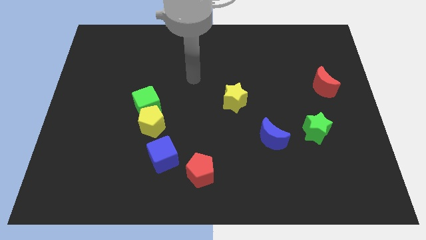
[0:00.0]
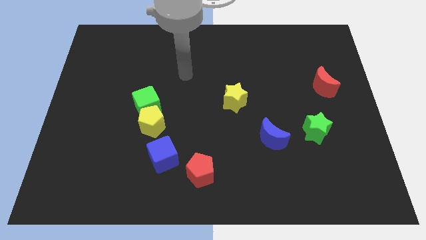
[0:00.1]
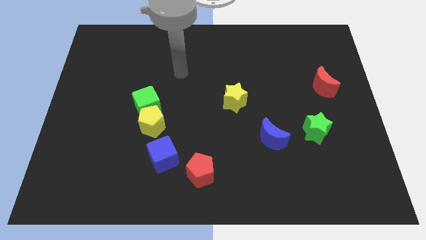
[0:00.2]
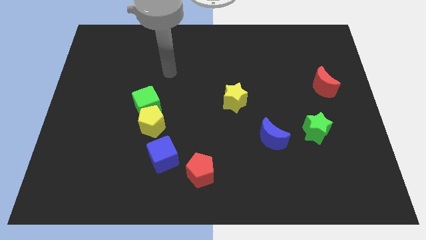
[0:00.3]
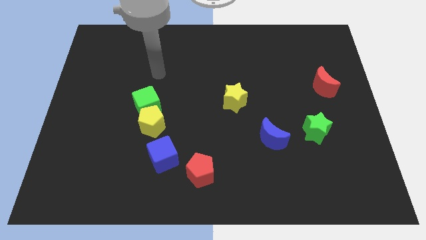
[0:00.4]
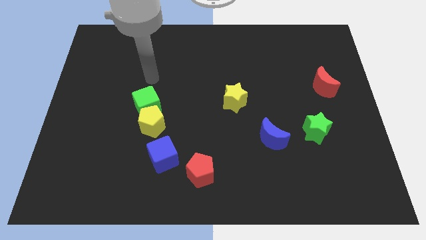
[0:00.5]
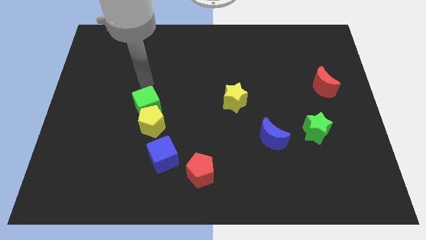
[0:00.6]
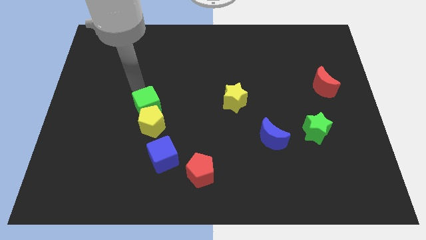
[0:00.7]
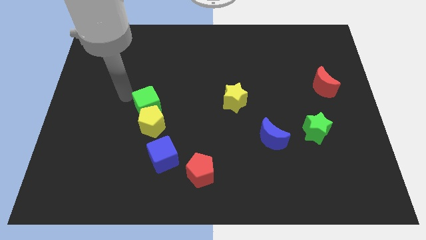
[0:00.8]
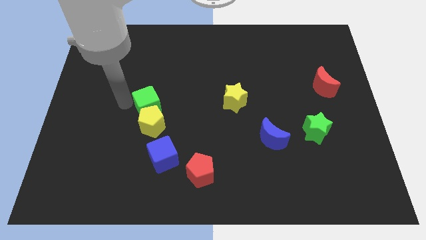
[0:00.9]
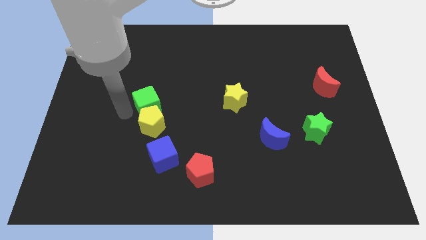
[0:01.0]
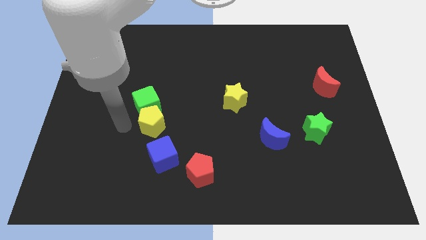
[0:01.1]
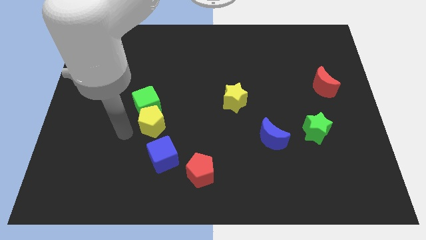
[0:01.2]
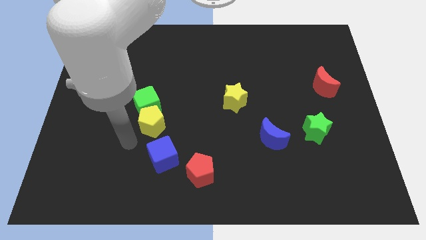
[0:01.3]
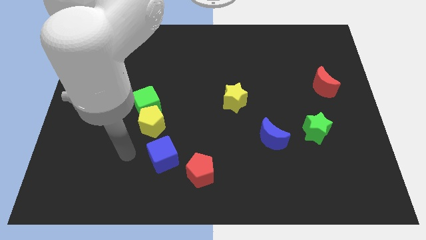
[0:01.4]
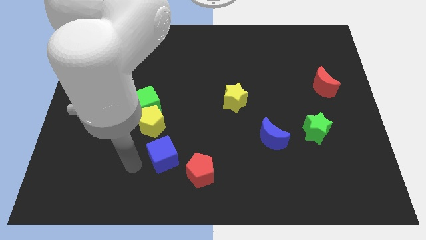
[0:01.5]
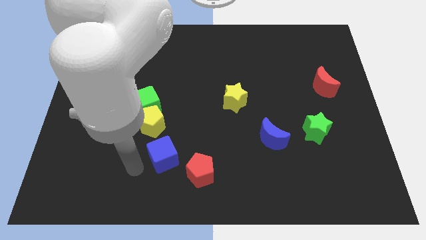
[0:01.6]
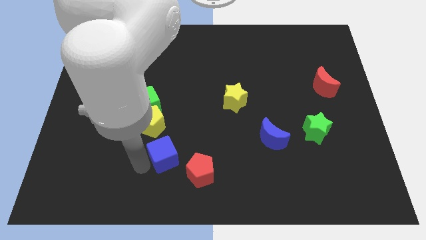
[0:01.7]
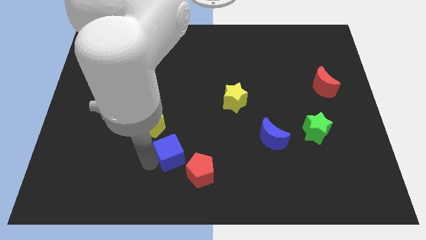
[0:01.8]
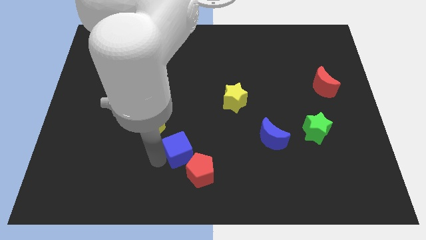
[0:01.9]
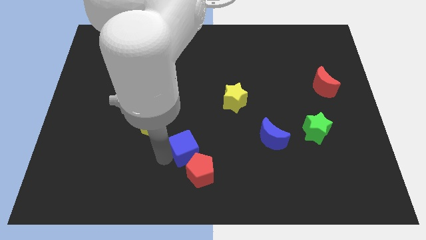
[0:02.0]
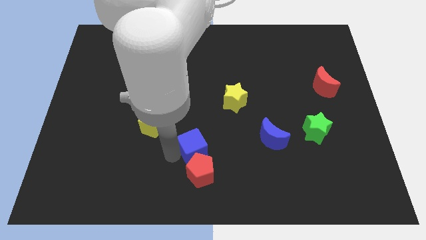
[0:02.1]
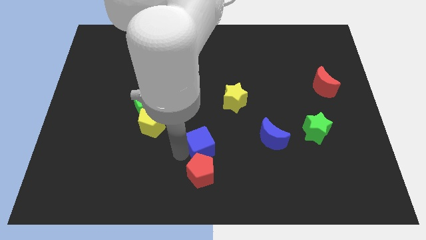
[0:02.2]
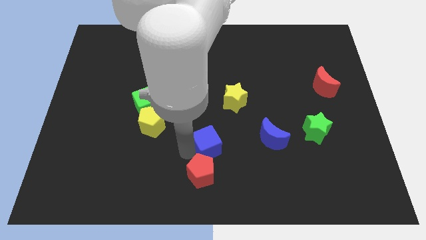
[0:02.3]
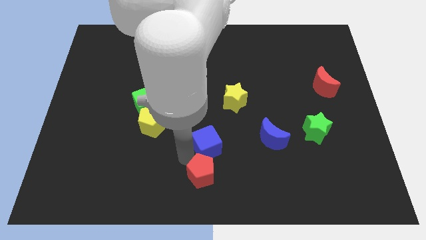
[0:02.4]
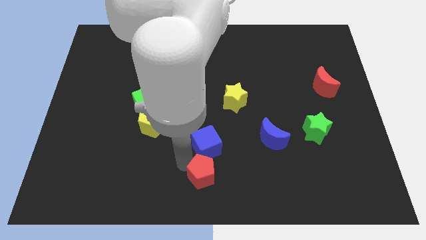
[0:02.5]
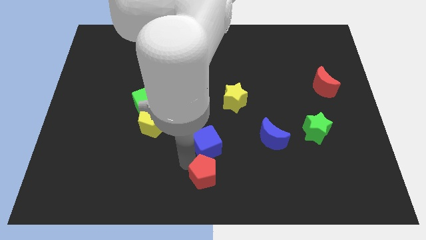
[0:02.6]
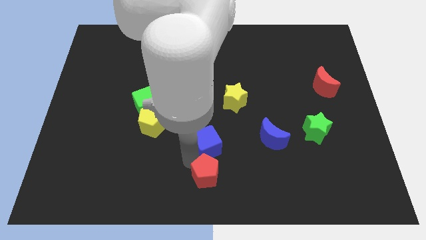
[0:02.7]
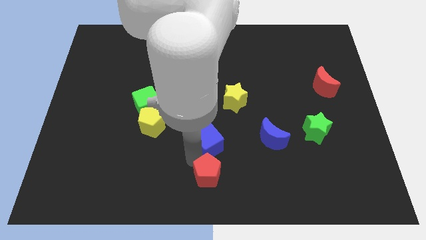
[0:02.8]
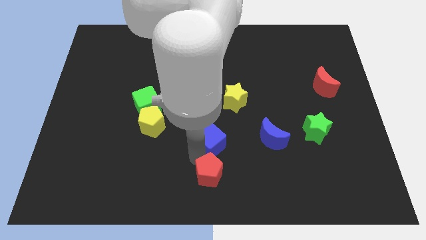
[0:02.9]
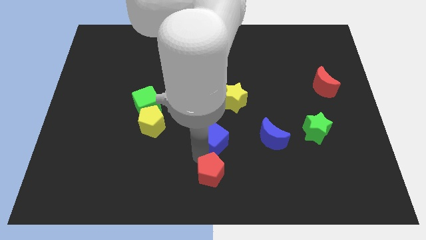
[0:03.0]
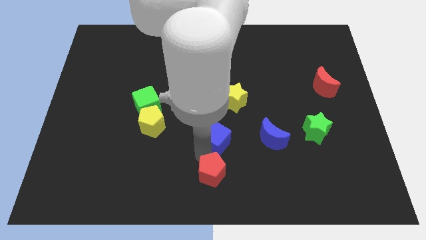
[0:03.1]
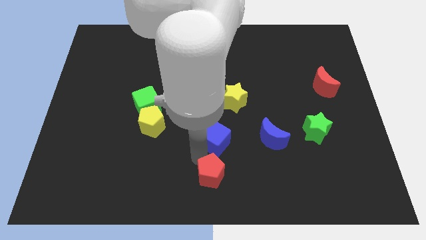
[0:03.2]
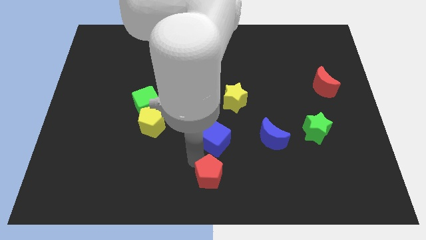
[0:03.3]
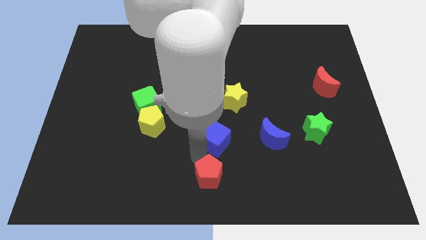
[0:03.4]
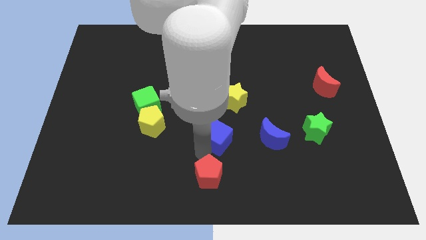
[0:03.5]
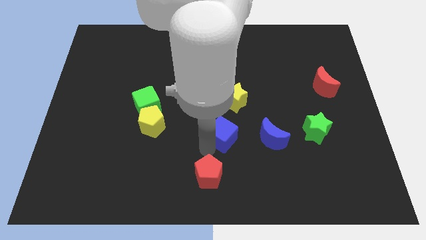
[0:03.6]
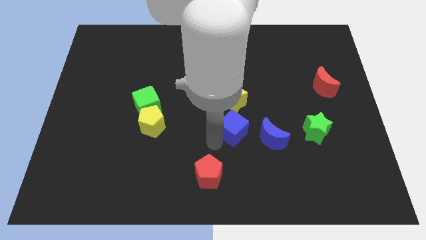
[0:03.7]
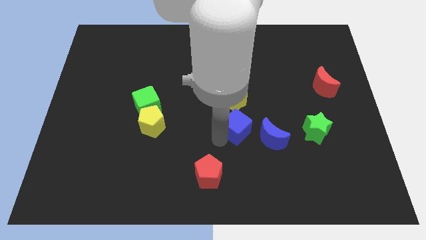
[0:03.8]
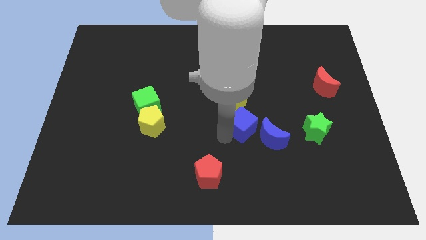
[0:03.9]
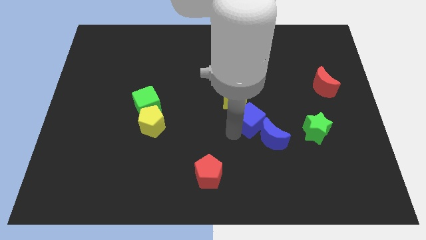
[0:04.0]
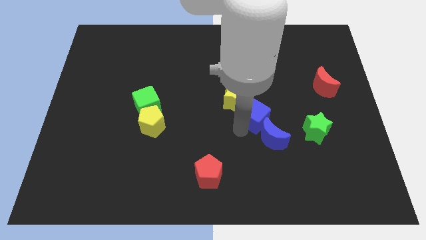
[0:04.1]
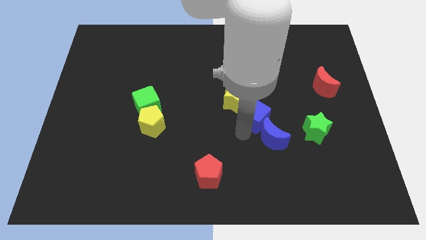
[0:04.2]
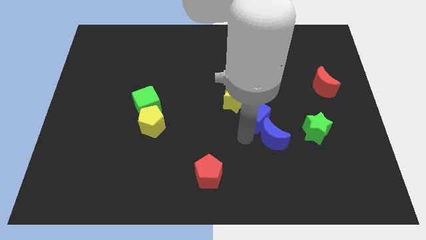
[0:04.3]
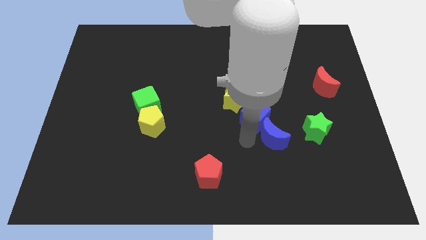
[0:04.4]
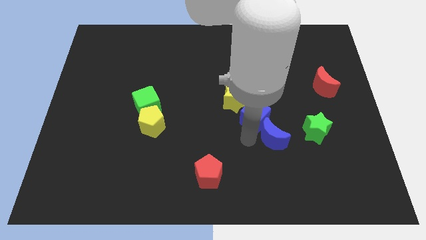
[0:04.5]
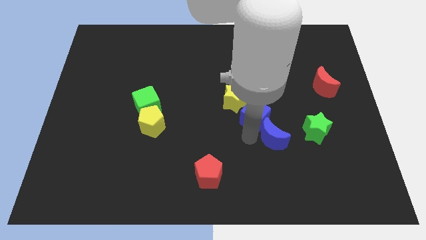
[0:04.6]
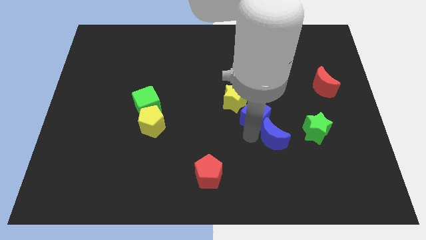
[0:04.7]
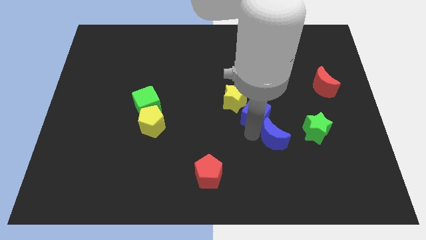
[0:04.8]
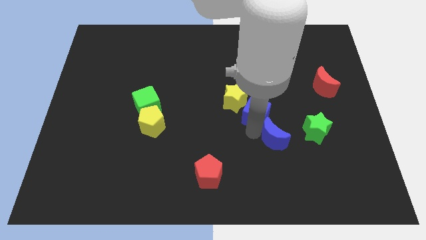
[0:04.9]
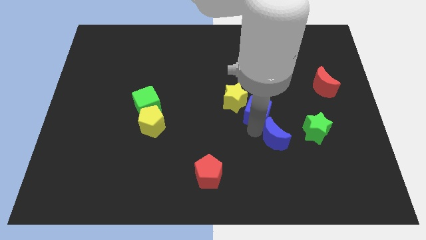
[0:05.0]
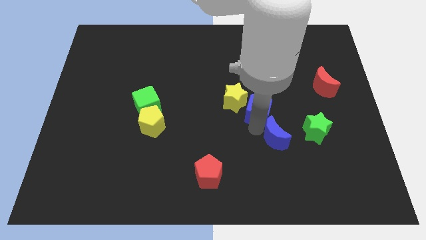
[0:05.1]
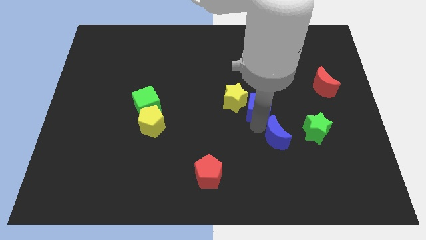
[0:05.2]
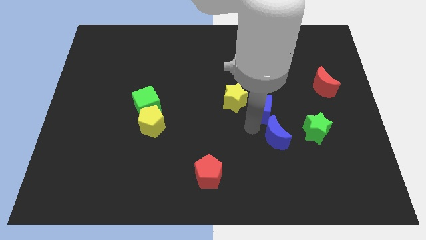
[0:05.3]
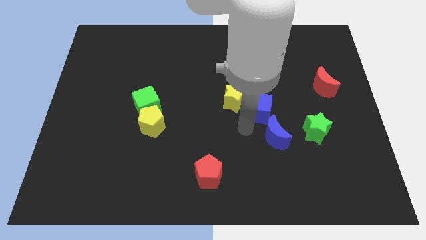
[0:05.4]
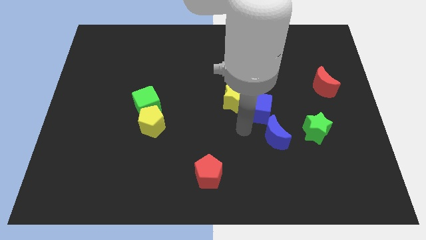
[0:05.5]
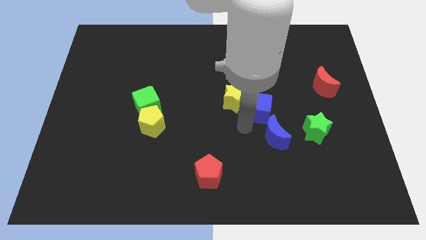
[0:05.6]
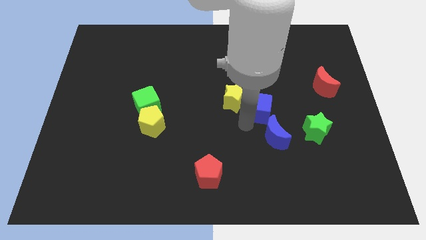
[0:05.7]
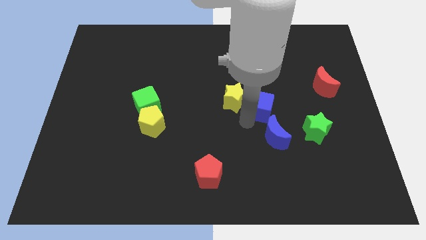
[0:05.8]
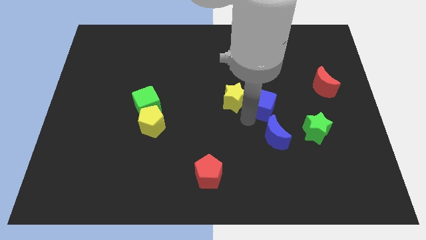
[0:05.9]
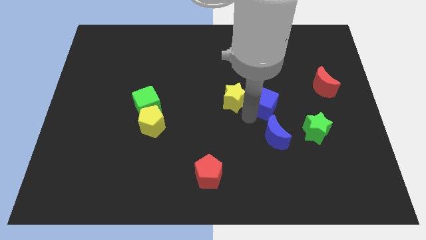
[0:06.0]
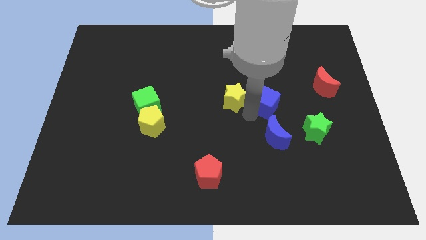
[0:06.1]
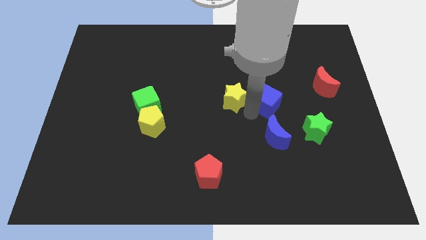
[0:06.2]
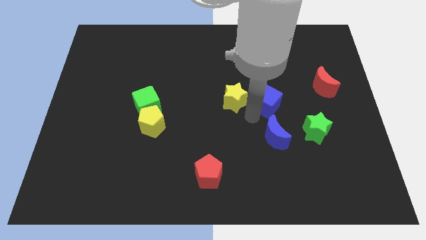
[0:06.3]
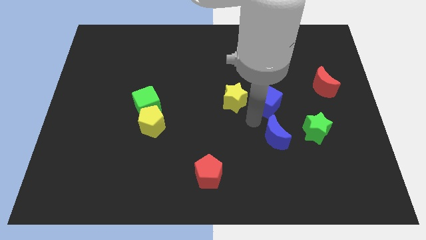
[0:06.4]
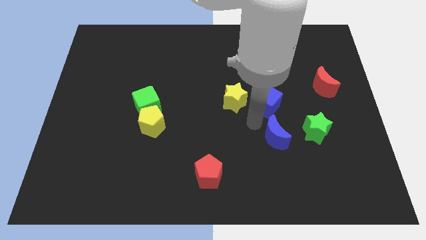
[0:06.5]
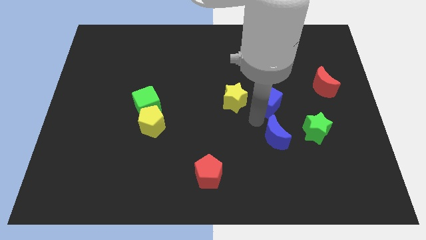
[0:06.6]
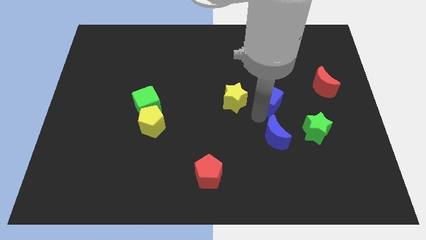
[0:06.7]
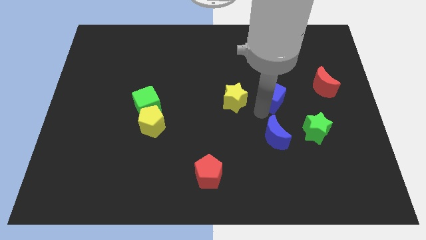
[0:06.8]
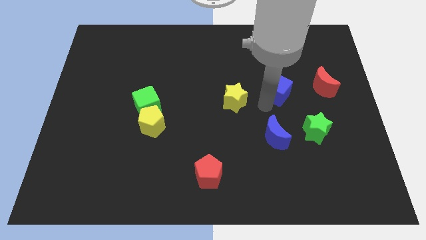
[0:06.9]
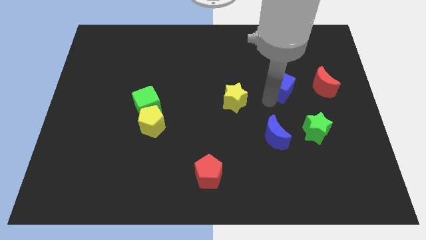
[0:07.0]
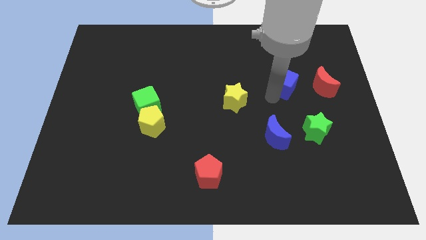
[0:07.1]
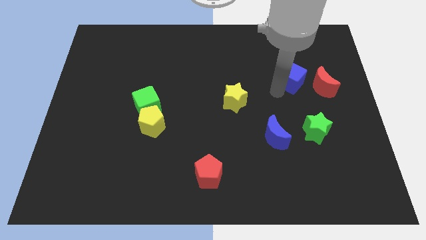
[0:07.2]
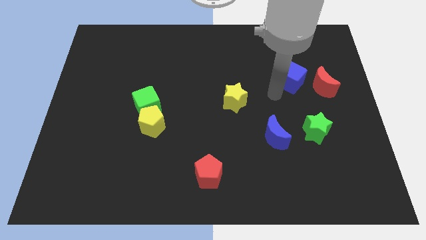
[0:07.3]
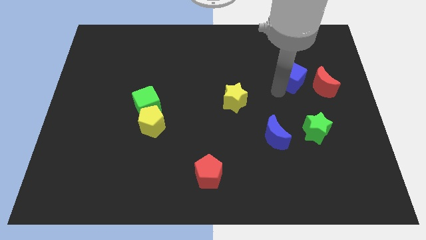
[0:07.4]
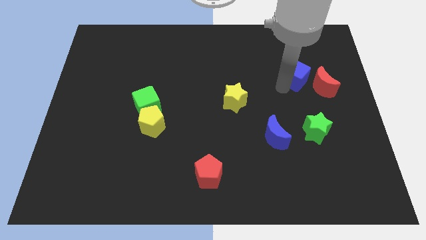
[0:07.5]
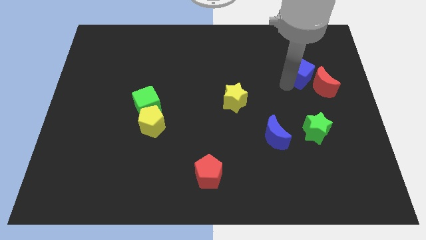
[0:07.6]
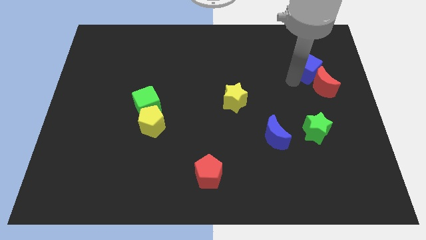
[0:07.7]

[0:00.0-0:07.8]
put the blue cube above the red moon

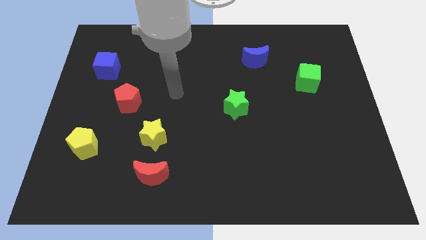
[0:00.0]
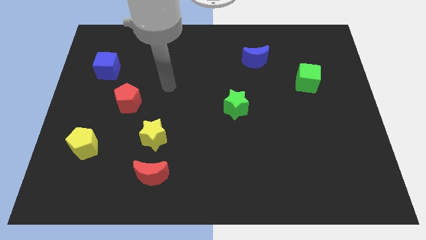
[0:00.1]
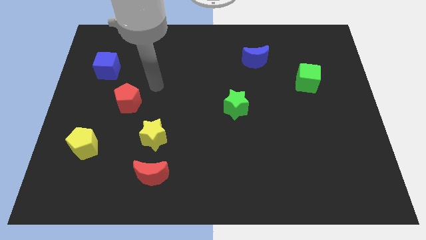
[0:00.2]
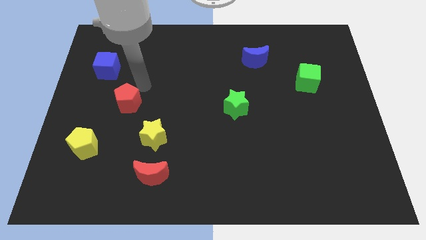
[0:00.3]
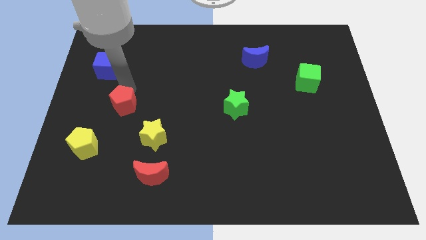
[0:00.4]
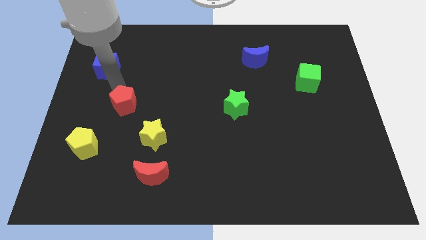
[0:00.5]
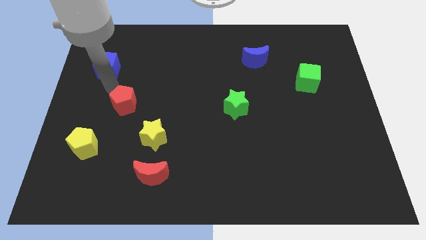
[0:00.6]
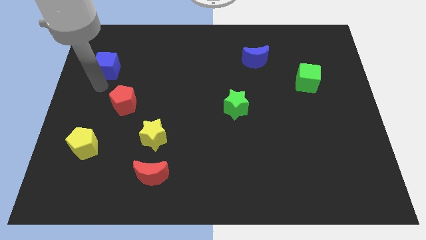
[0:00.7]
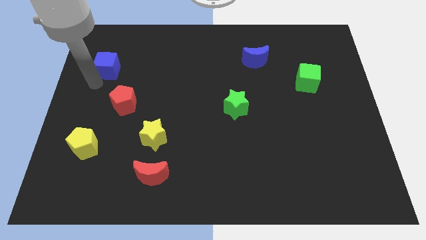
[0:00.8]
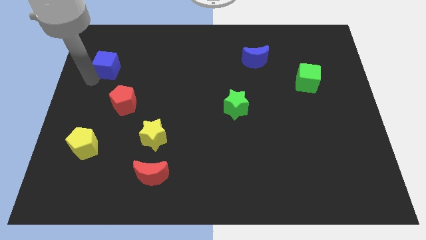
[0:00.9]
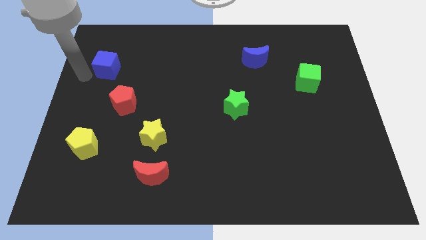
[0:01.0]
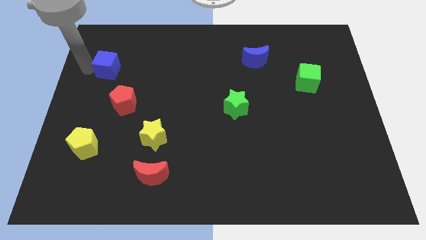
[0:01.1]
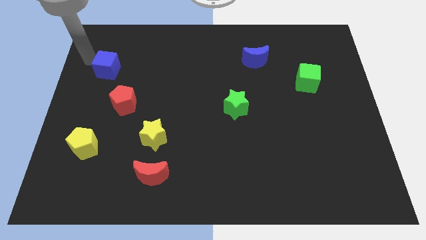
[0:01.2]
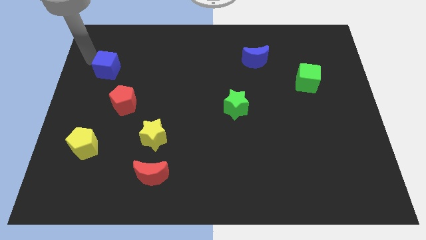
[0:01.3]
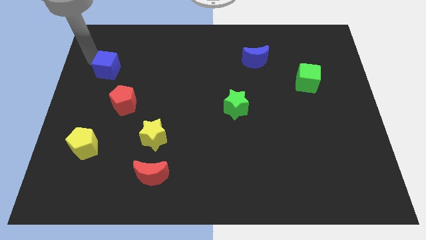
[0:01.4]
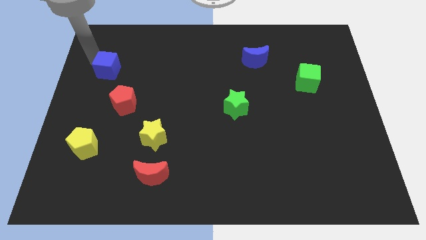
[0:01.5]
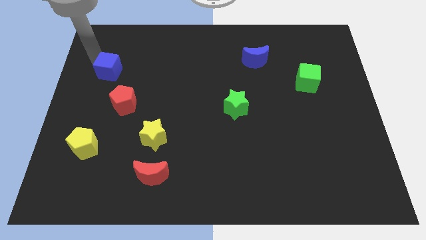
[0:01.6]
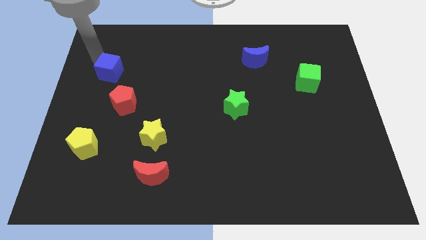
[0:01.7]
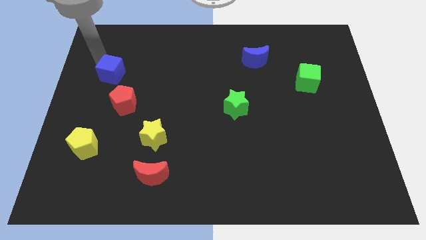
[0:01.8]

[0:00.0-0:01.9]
put the blue cube above the red pentagon
